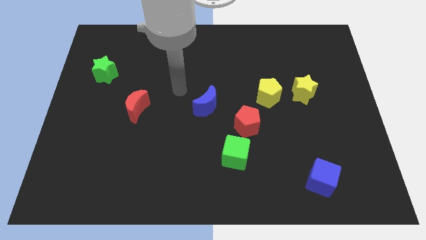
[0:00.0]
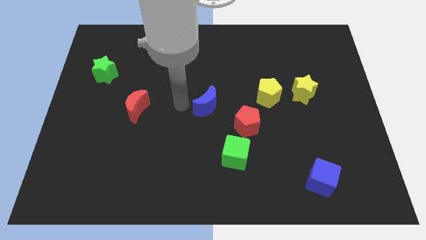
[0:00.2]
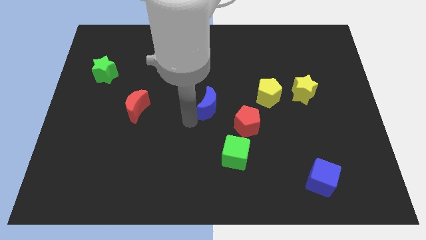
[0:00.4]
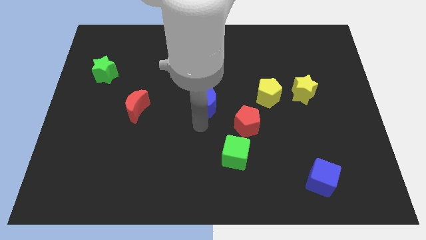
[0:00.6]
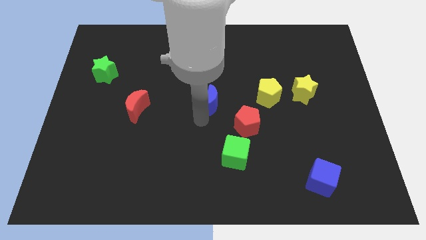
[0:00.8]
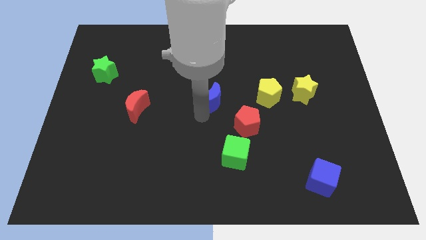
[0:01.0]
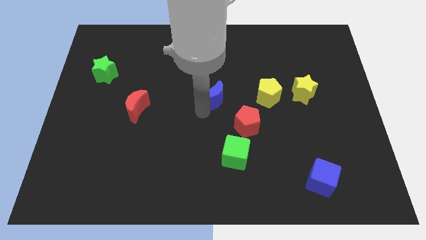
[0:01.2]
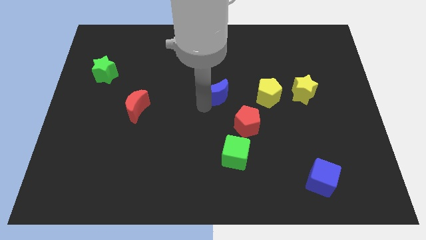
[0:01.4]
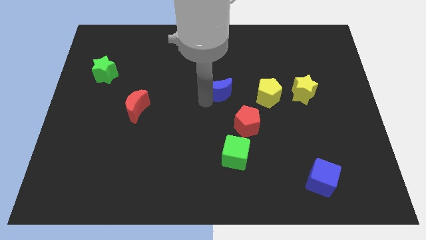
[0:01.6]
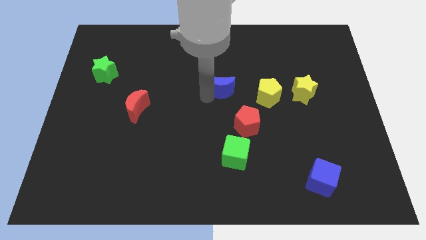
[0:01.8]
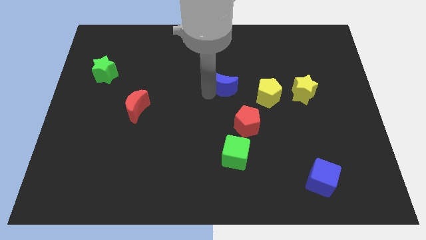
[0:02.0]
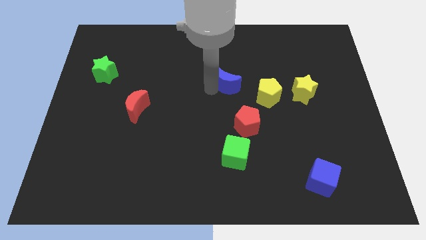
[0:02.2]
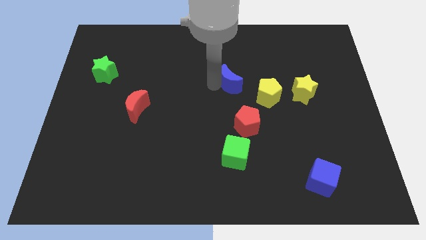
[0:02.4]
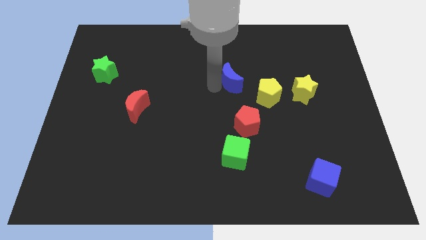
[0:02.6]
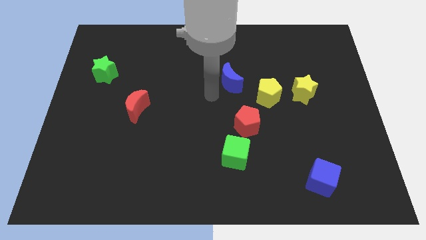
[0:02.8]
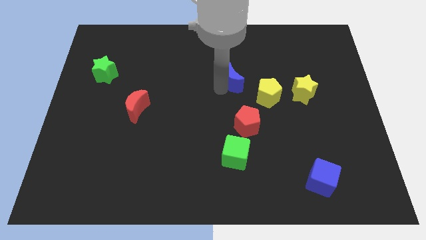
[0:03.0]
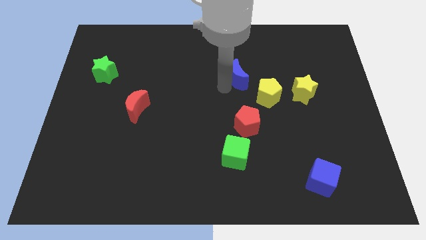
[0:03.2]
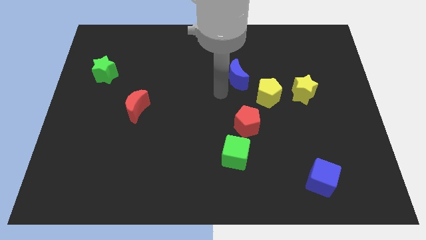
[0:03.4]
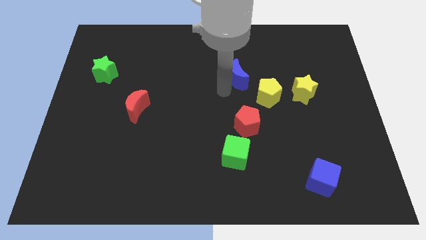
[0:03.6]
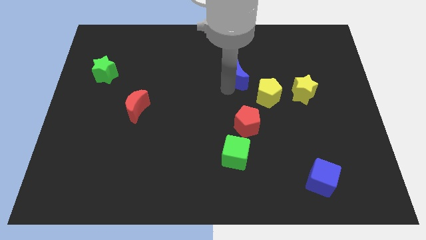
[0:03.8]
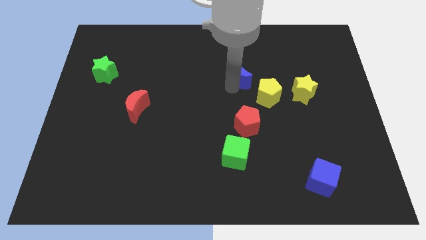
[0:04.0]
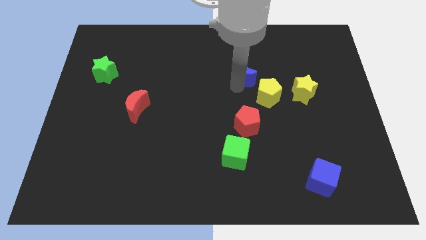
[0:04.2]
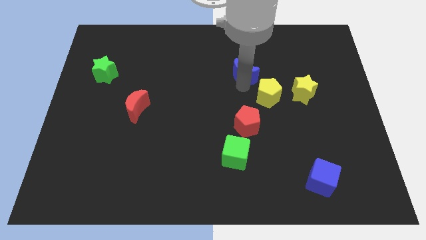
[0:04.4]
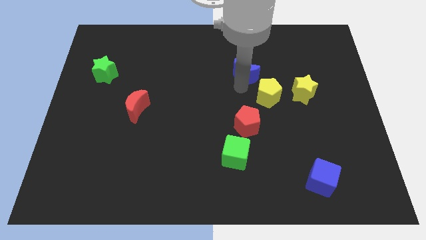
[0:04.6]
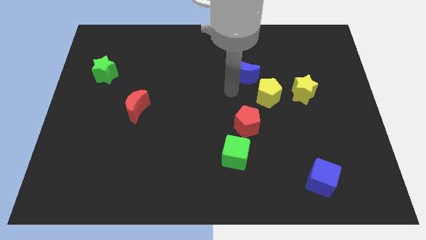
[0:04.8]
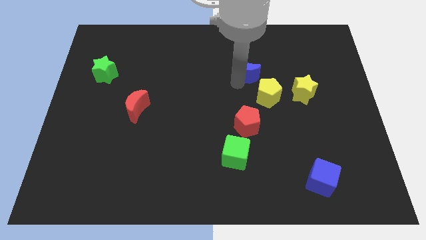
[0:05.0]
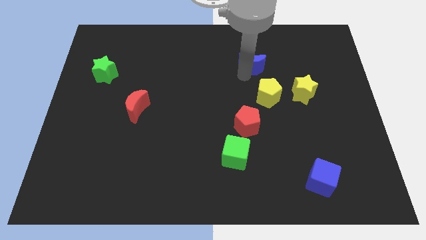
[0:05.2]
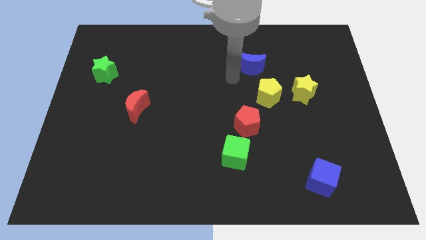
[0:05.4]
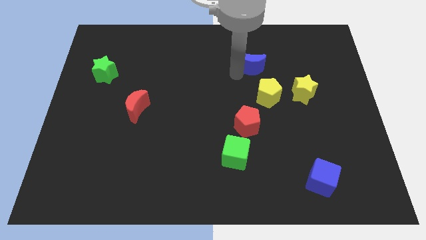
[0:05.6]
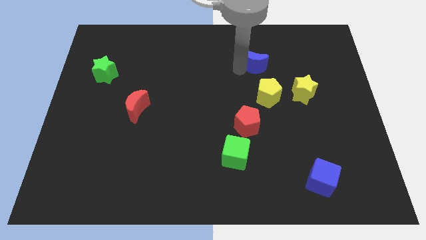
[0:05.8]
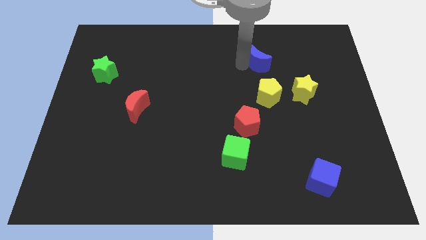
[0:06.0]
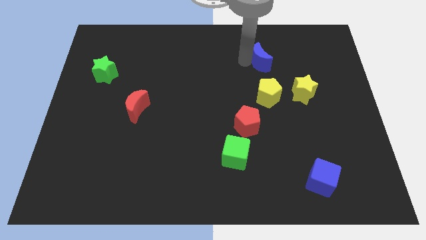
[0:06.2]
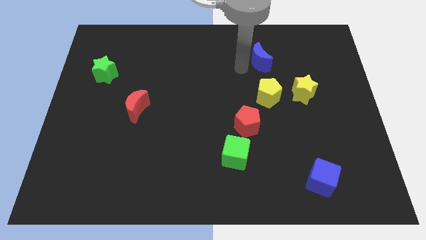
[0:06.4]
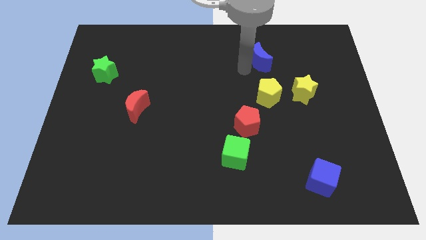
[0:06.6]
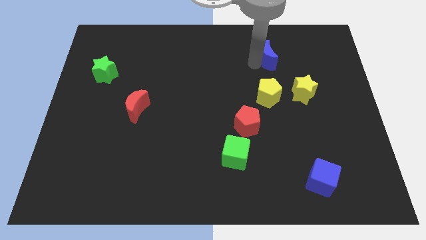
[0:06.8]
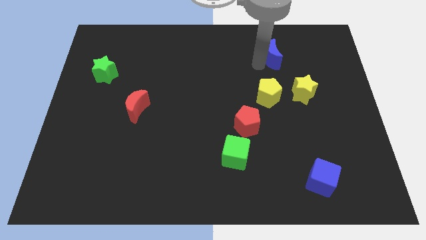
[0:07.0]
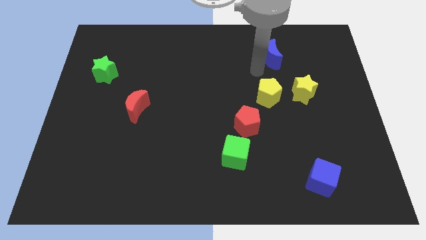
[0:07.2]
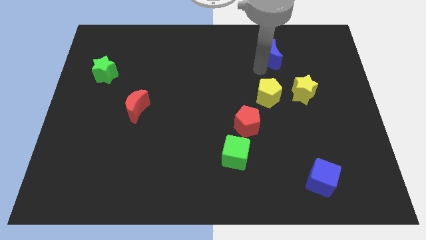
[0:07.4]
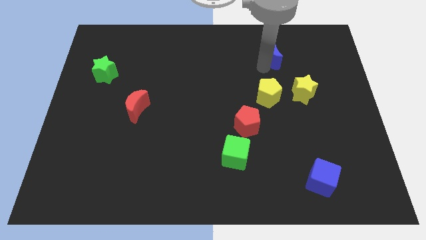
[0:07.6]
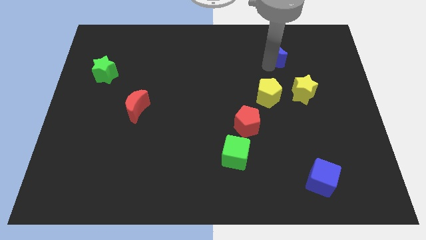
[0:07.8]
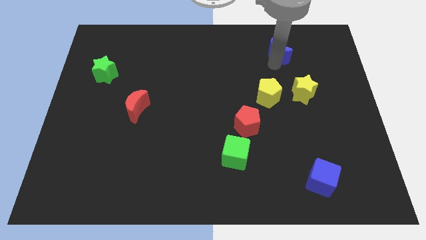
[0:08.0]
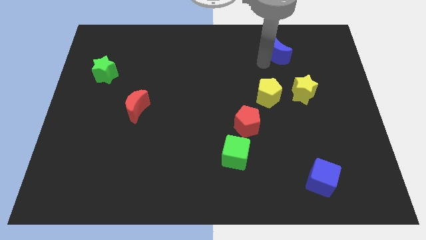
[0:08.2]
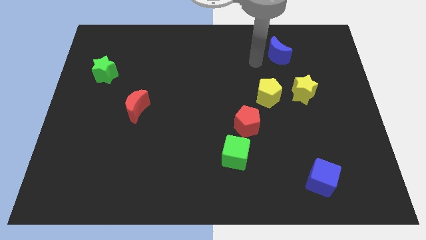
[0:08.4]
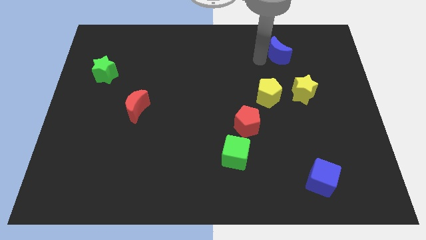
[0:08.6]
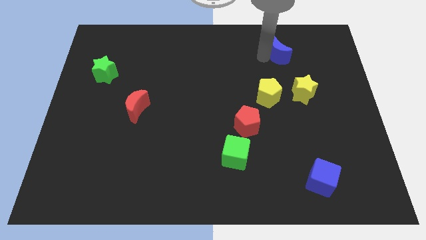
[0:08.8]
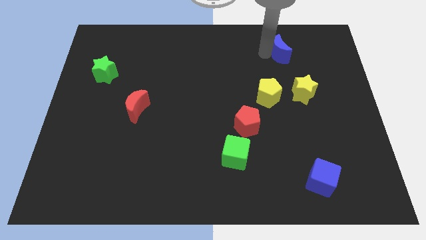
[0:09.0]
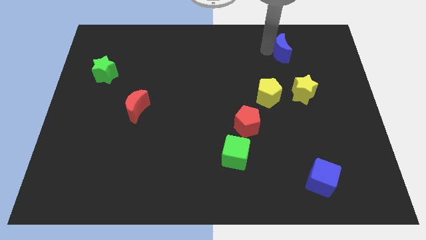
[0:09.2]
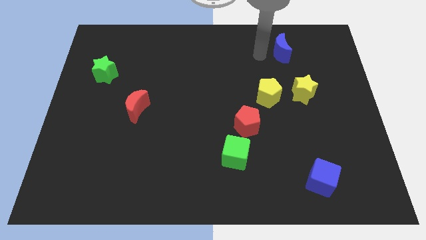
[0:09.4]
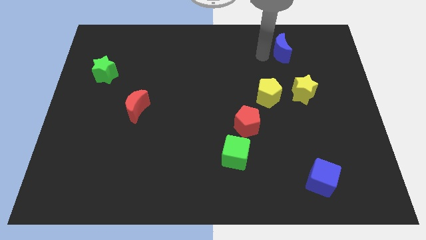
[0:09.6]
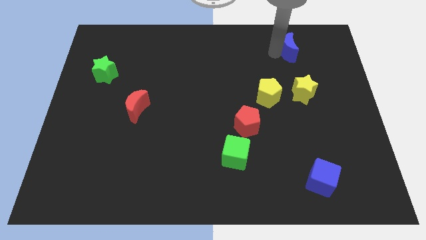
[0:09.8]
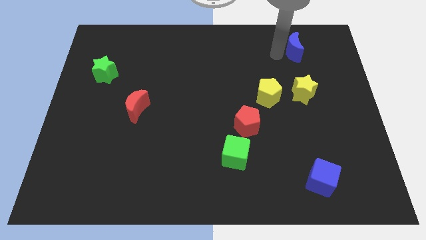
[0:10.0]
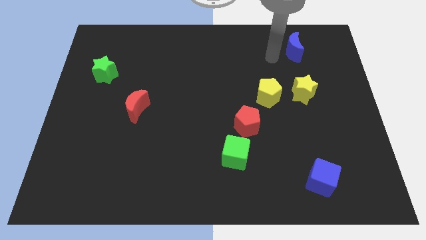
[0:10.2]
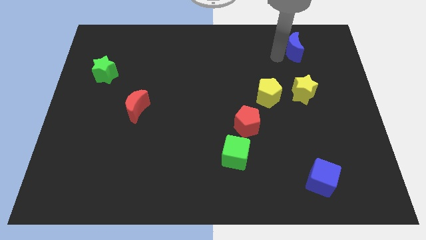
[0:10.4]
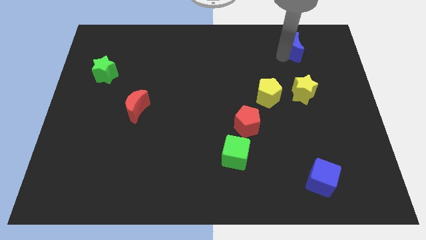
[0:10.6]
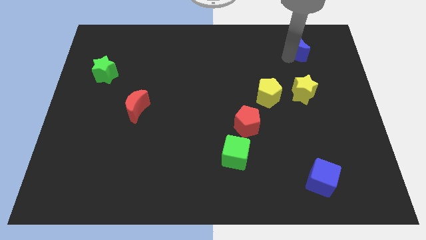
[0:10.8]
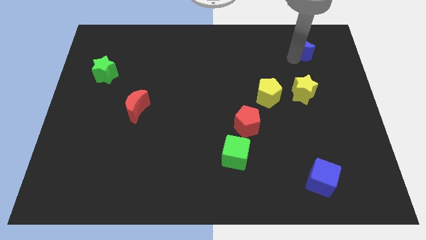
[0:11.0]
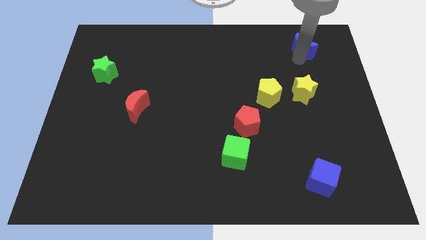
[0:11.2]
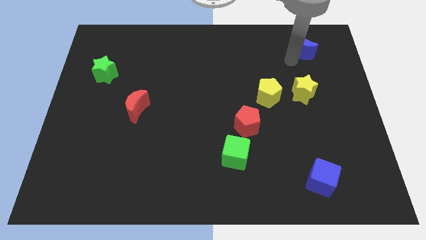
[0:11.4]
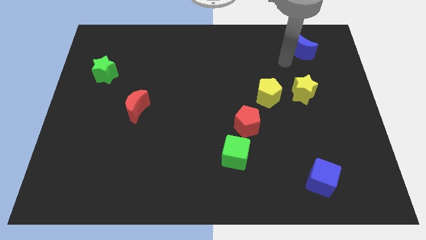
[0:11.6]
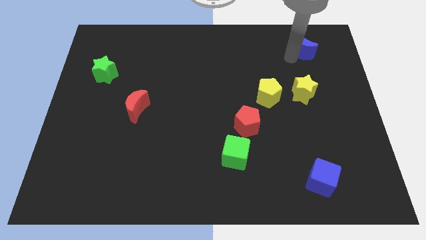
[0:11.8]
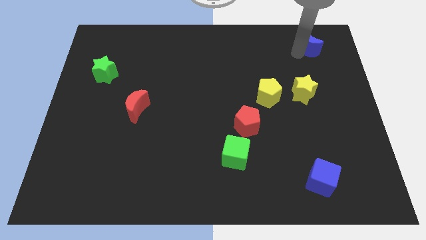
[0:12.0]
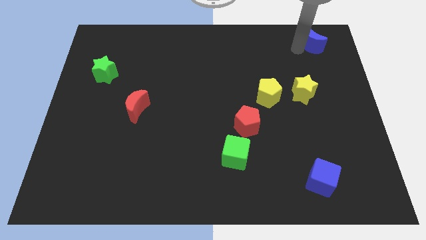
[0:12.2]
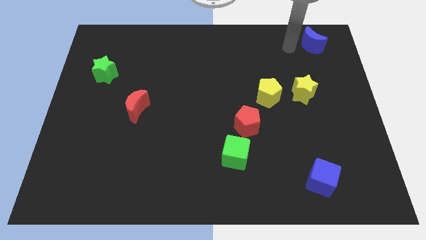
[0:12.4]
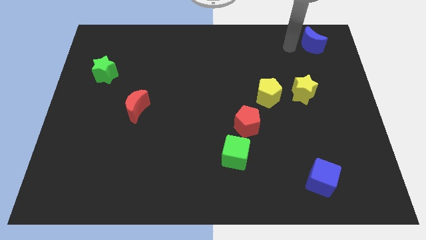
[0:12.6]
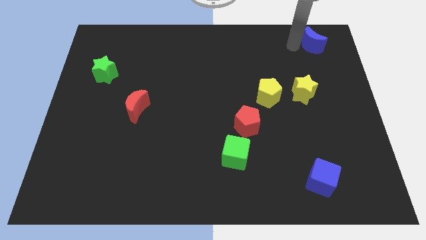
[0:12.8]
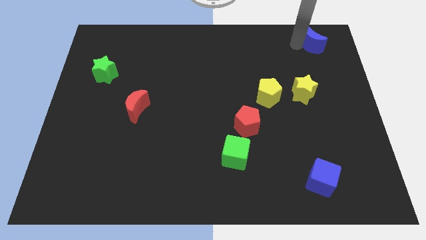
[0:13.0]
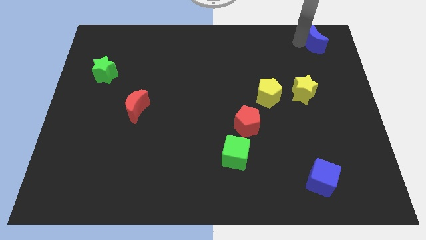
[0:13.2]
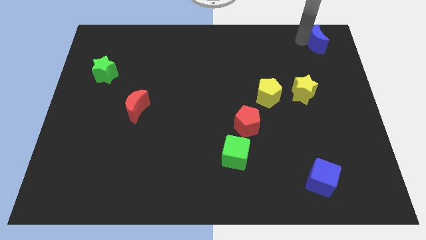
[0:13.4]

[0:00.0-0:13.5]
put the blue moon to the upper right corner
